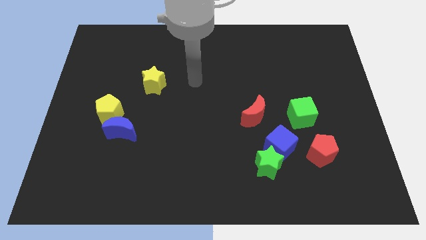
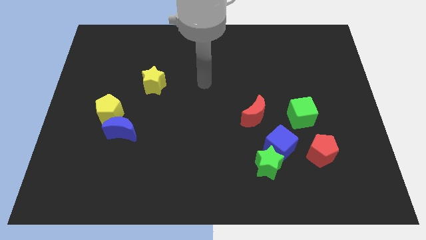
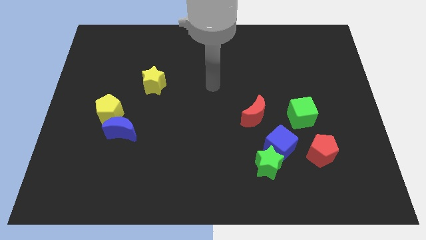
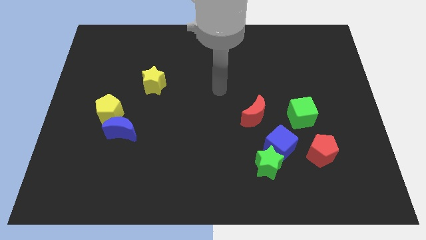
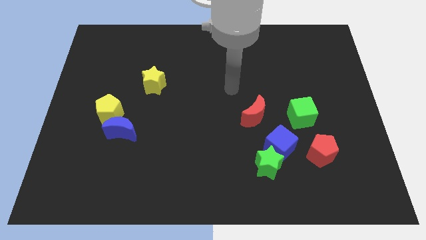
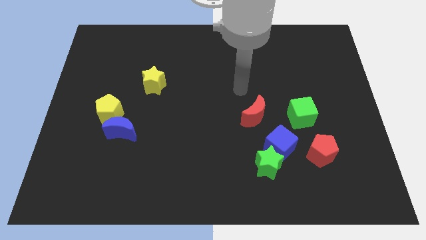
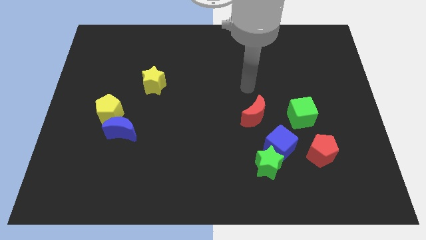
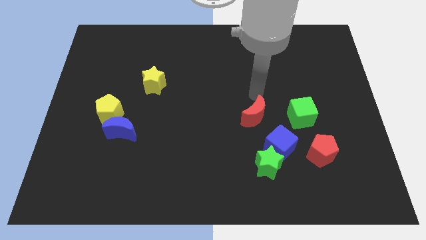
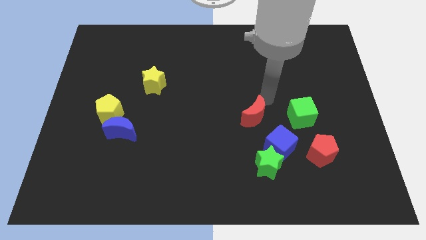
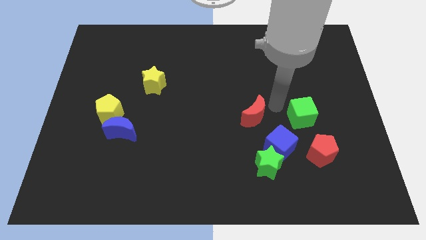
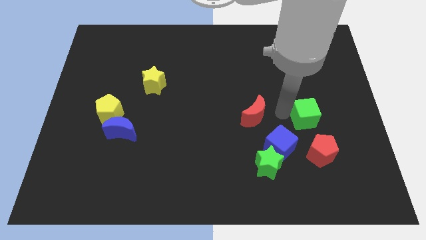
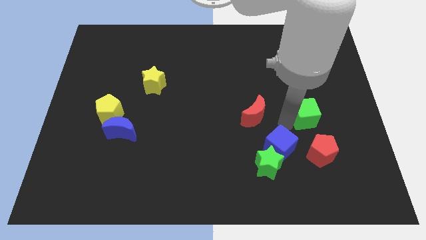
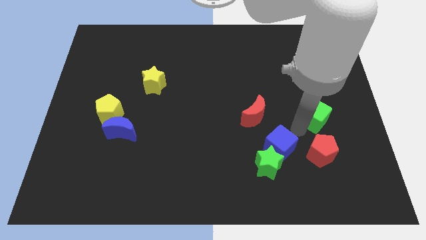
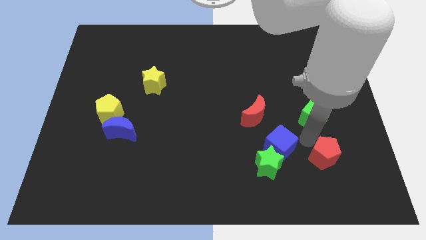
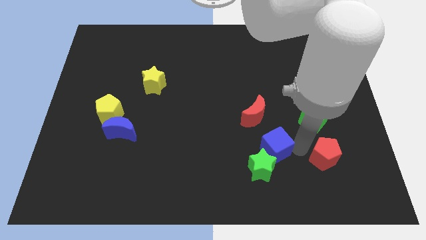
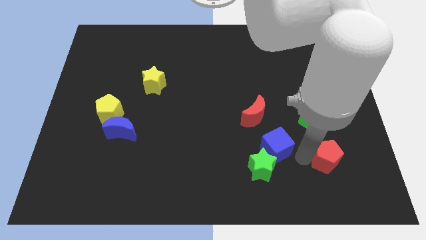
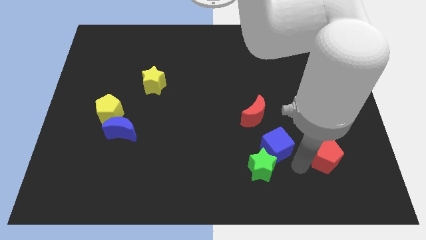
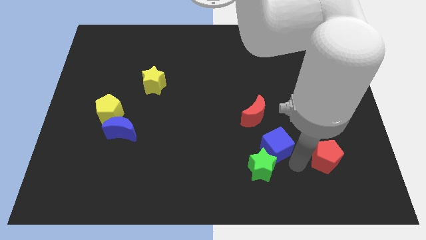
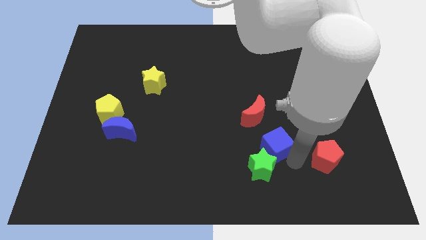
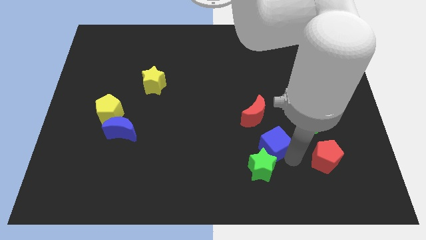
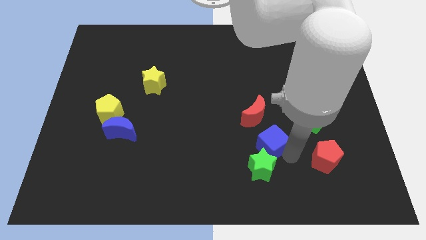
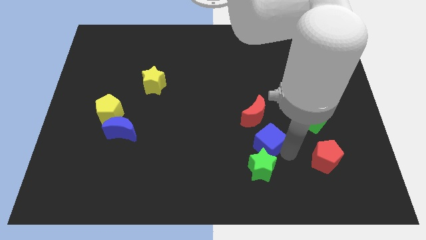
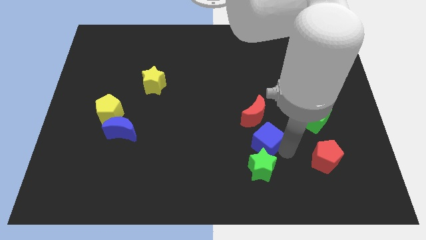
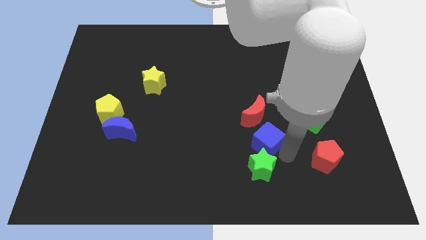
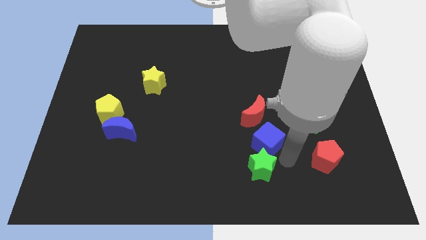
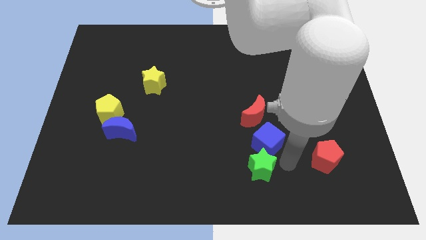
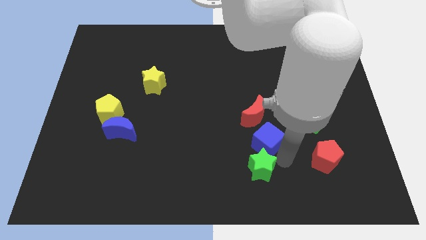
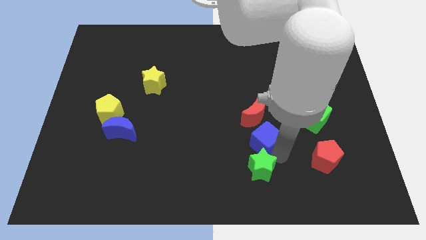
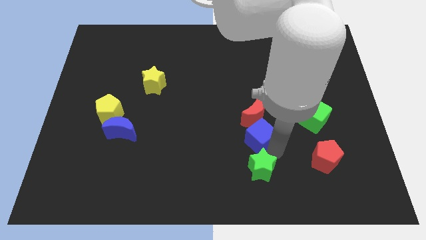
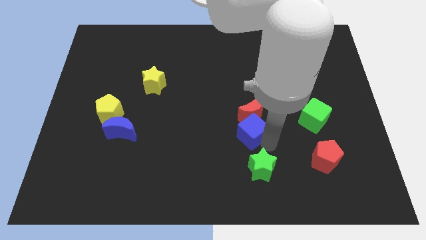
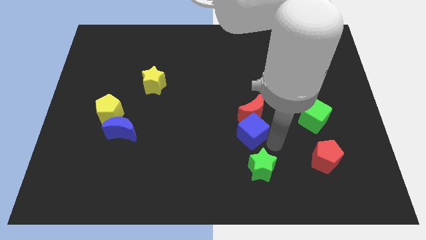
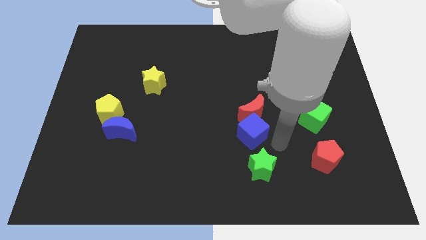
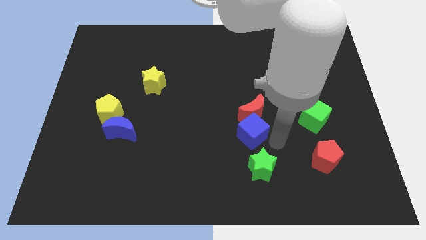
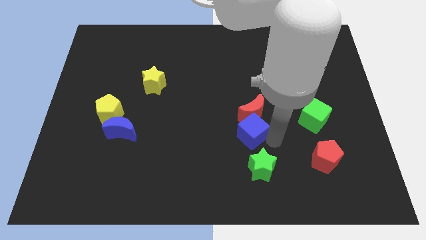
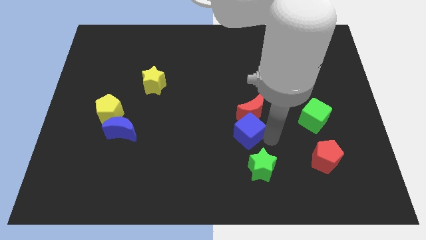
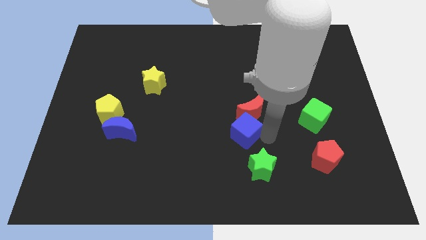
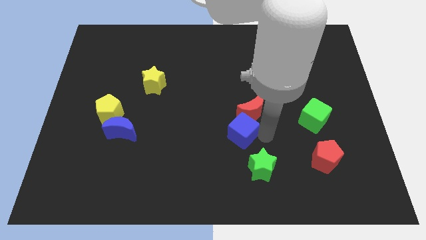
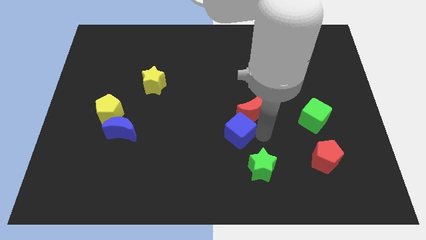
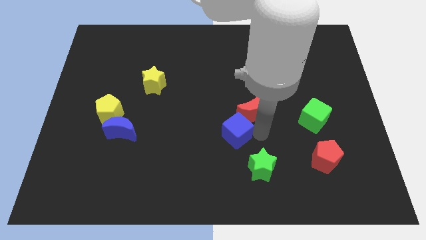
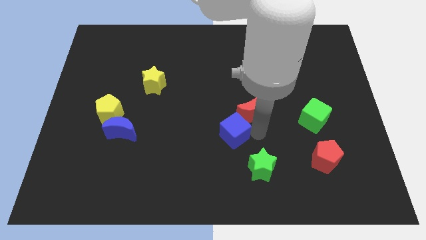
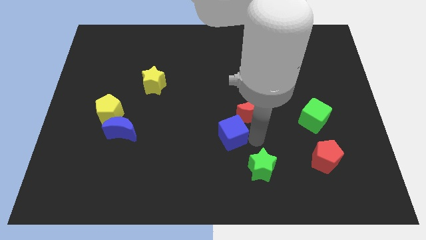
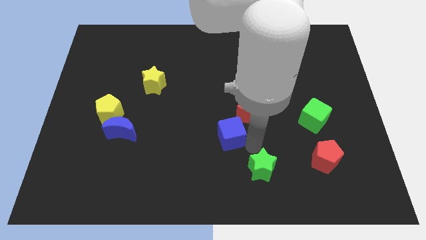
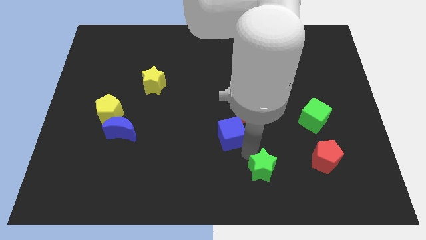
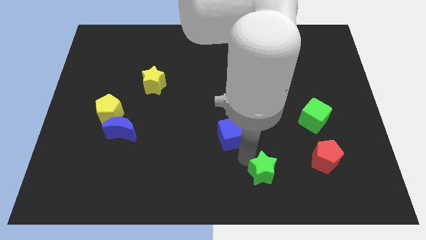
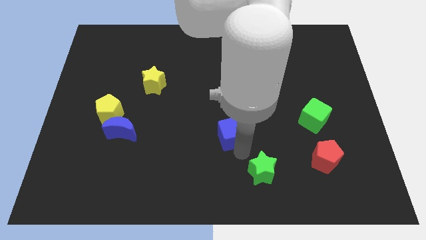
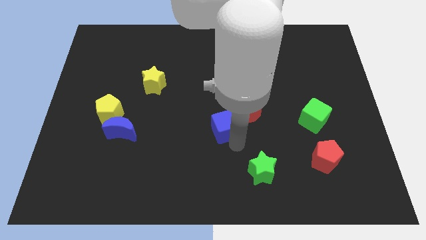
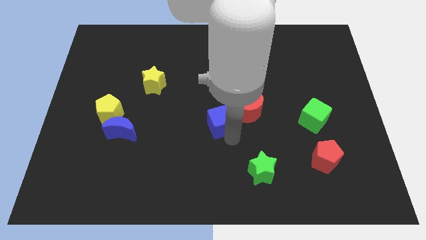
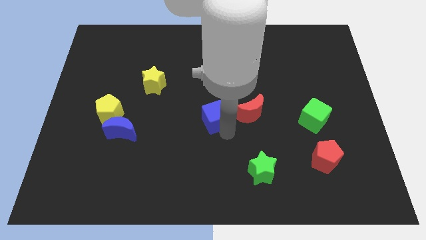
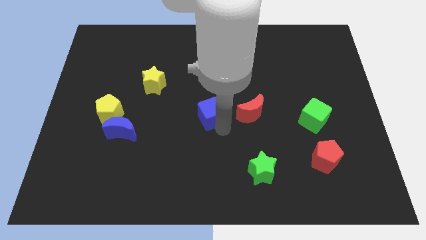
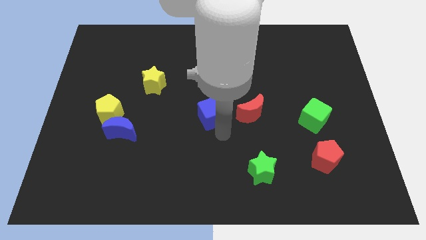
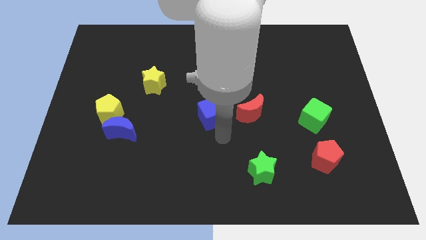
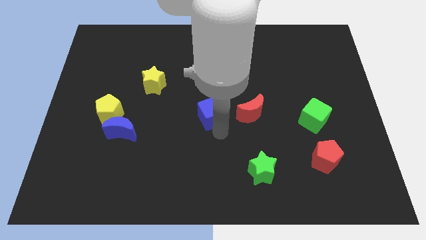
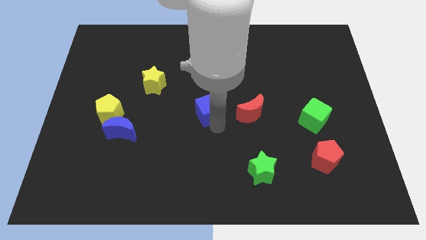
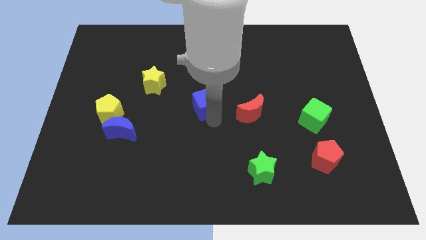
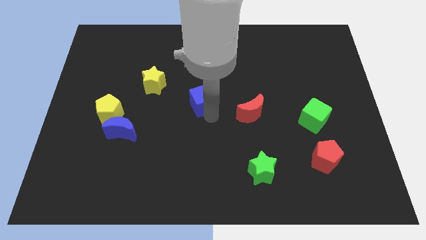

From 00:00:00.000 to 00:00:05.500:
move the blue cube upwards and then to the left

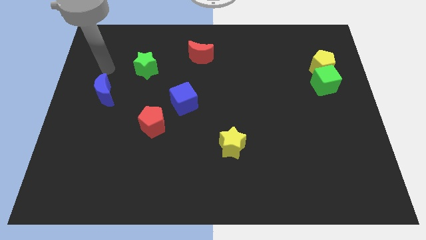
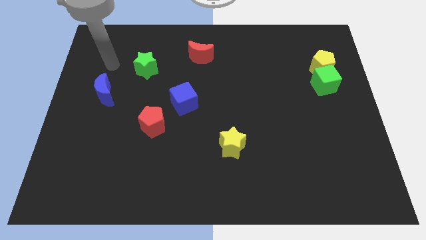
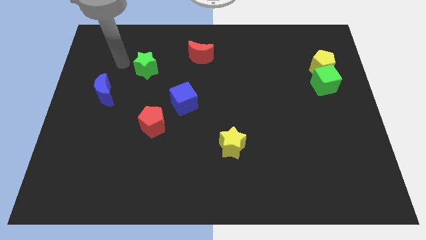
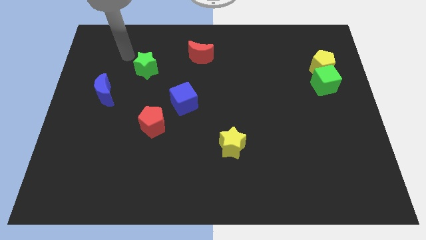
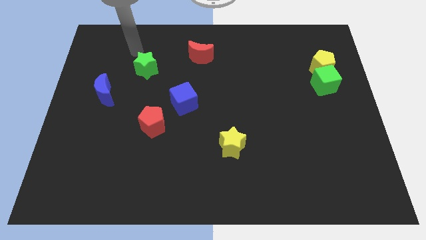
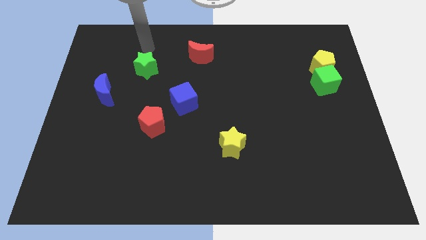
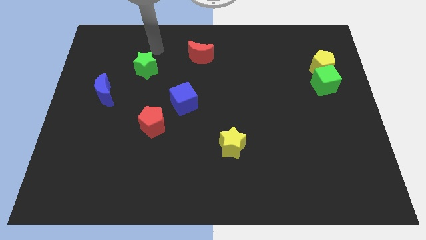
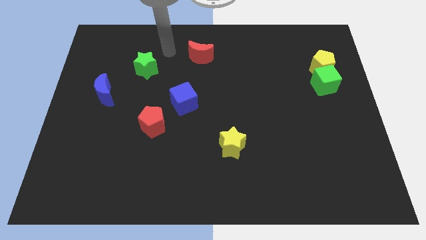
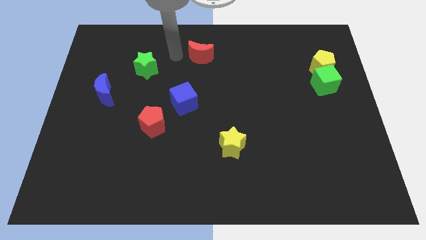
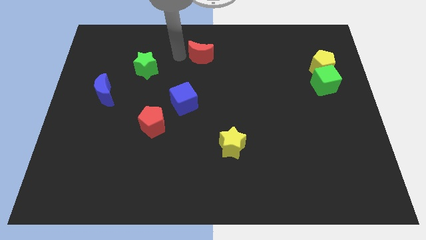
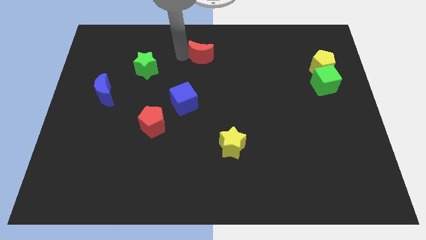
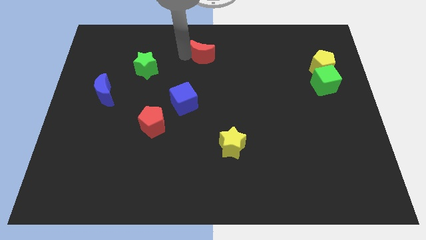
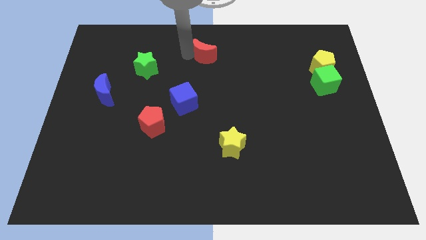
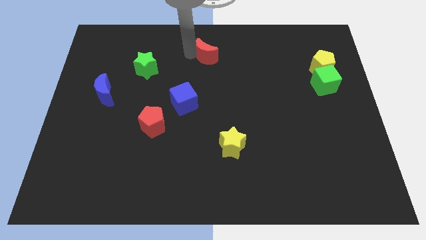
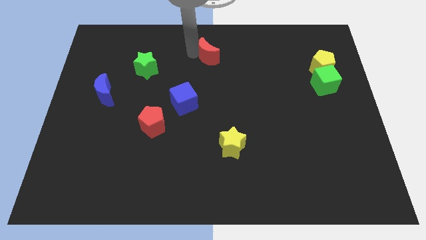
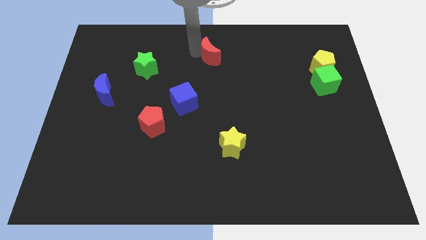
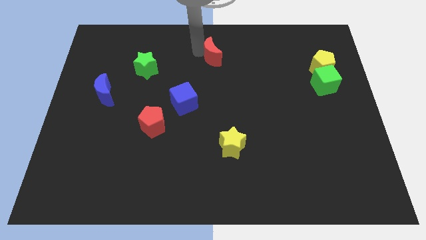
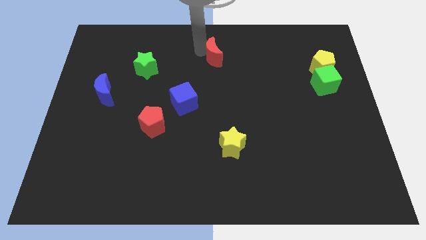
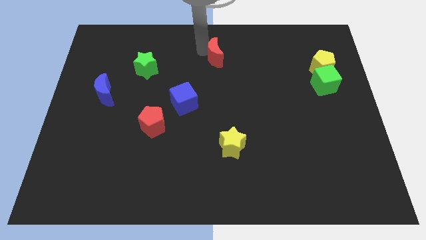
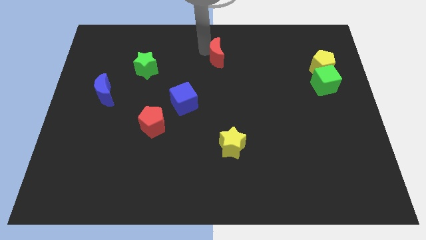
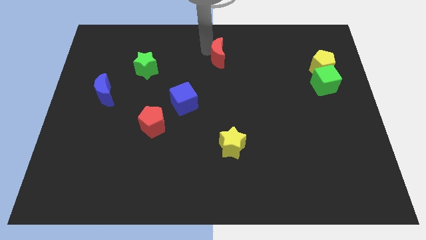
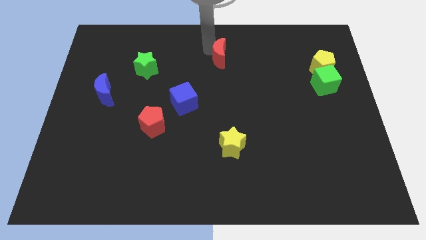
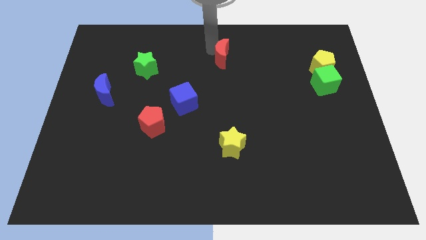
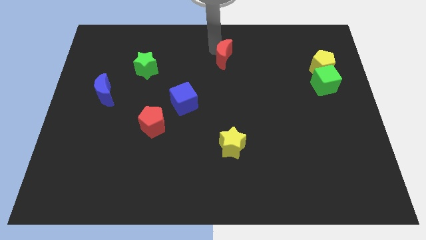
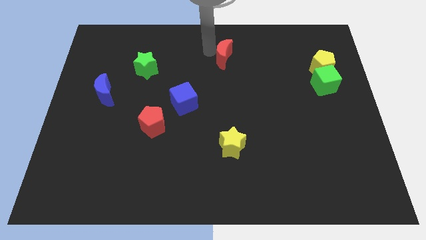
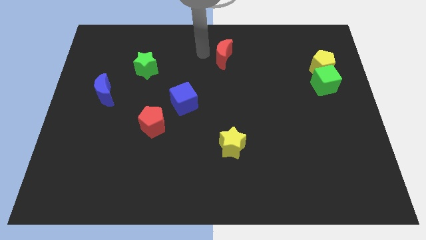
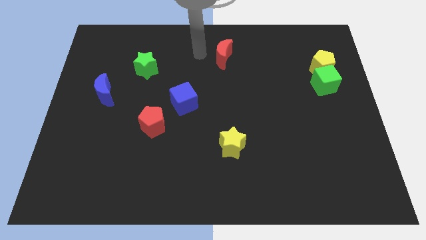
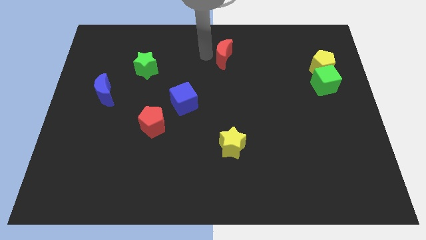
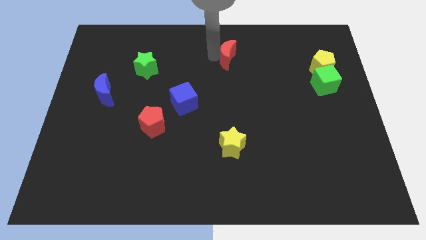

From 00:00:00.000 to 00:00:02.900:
push the red moon somewhat right
